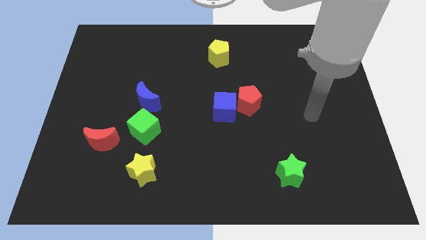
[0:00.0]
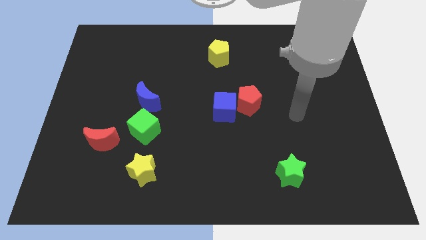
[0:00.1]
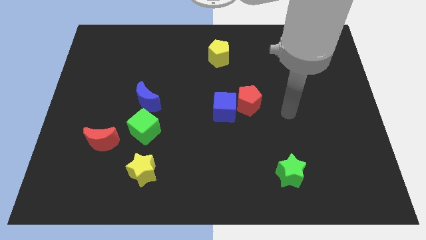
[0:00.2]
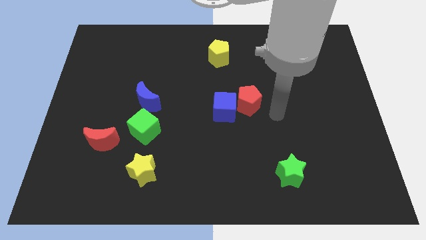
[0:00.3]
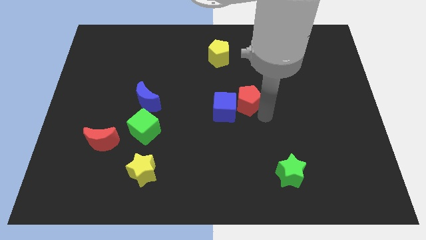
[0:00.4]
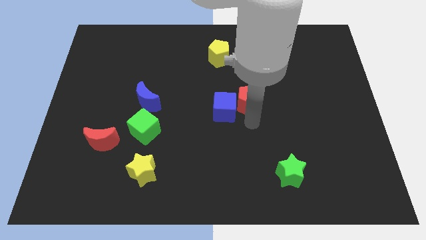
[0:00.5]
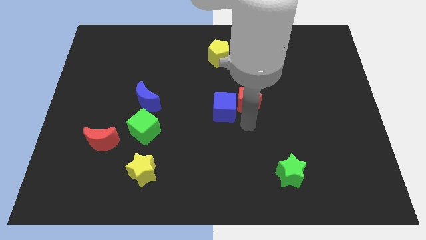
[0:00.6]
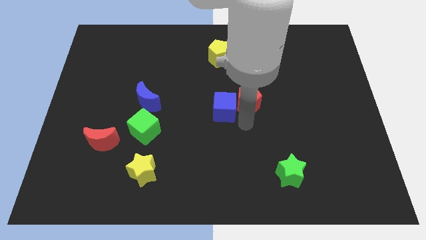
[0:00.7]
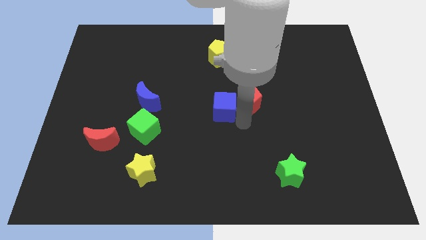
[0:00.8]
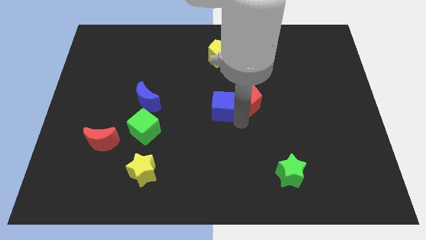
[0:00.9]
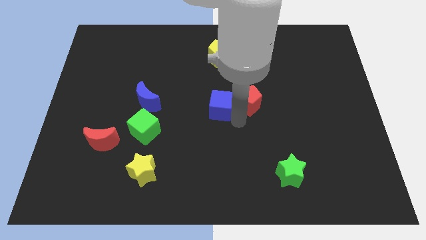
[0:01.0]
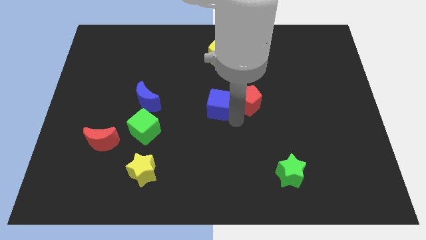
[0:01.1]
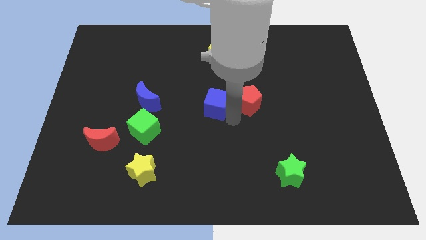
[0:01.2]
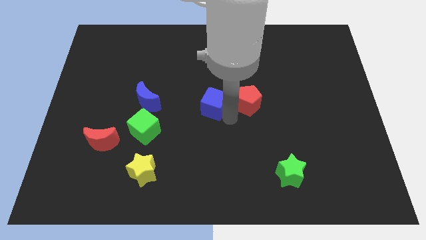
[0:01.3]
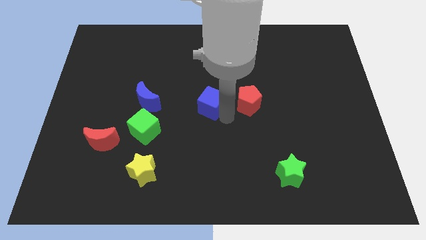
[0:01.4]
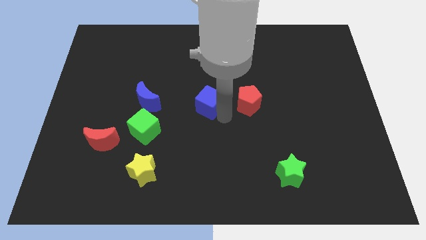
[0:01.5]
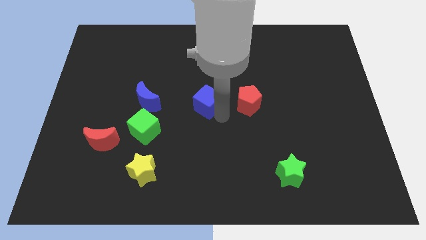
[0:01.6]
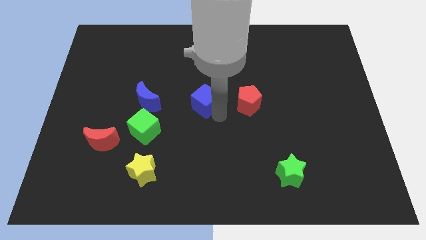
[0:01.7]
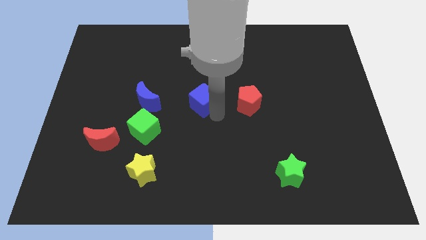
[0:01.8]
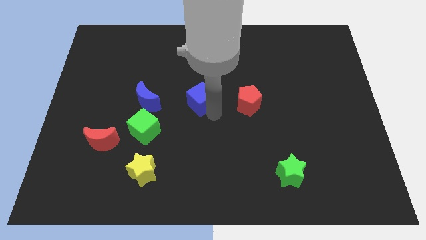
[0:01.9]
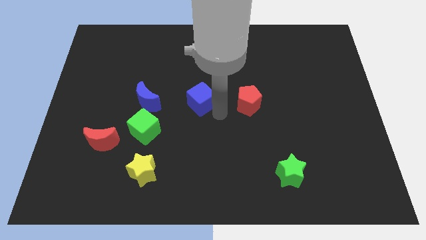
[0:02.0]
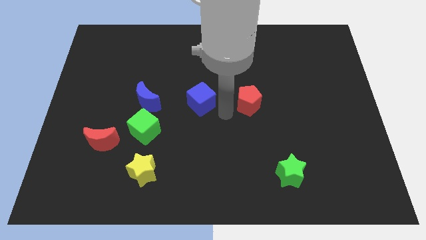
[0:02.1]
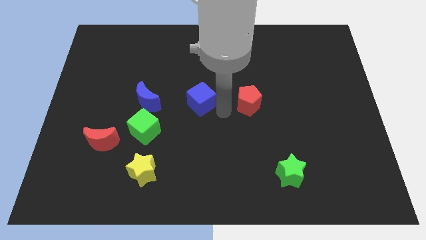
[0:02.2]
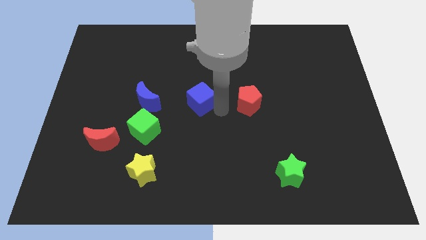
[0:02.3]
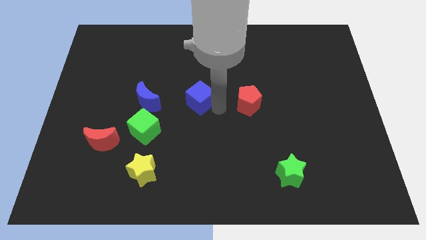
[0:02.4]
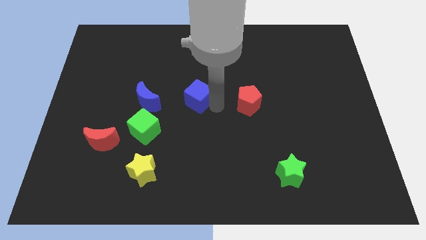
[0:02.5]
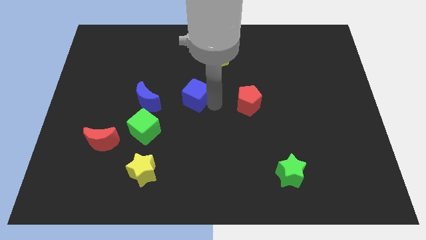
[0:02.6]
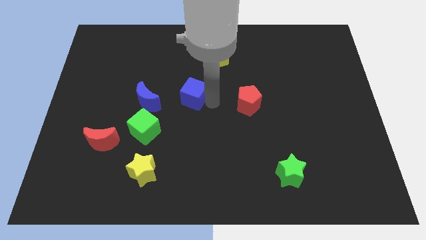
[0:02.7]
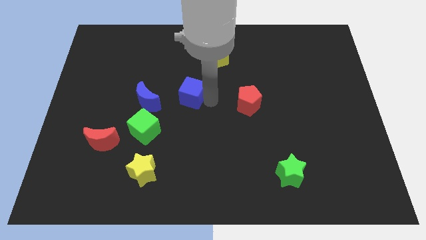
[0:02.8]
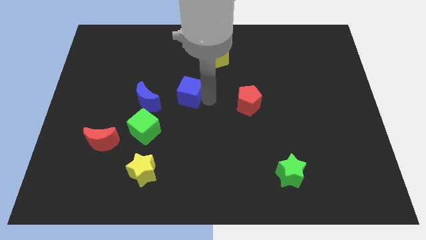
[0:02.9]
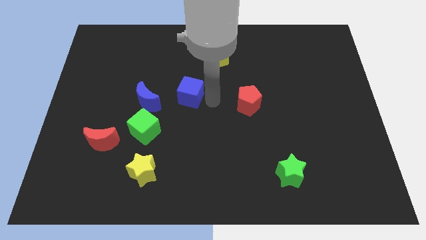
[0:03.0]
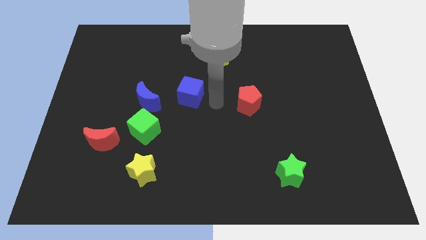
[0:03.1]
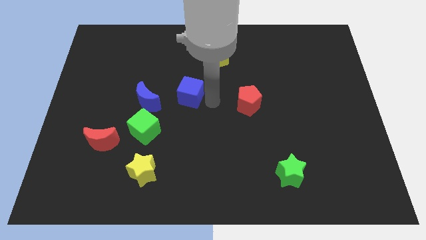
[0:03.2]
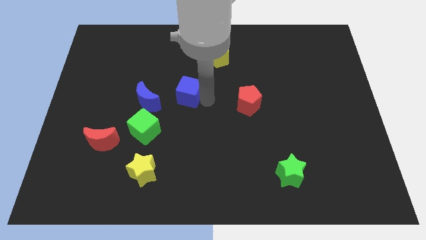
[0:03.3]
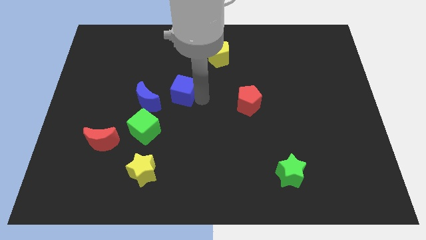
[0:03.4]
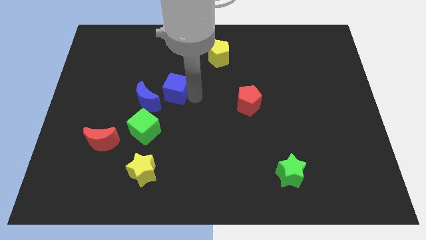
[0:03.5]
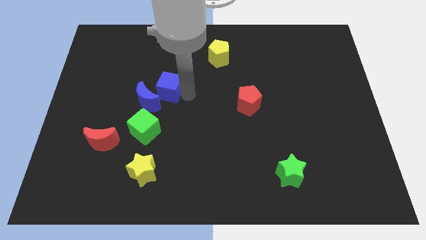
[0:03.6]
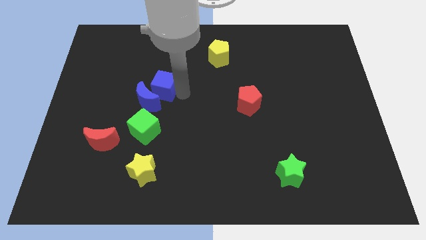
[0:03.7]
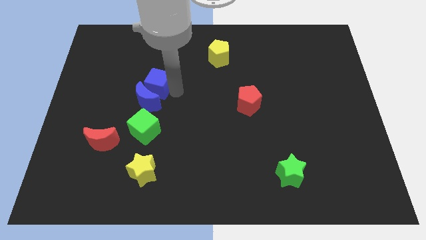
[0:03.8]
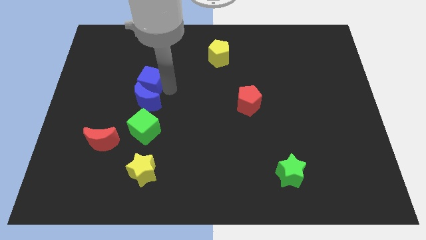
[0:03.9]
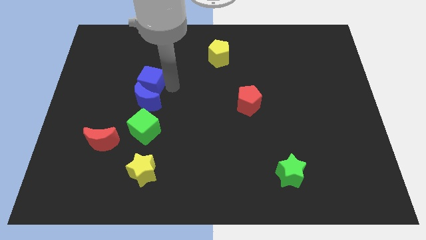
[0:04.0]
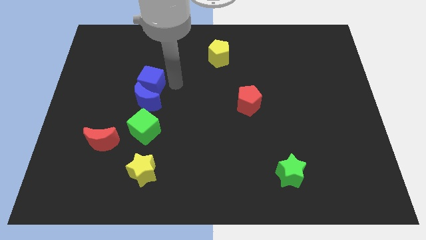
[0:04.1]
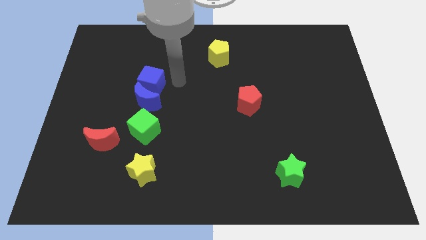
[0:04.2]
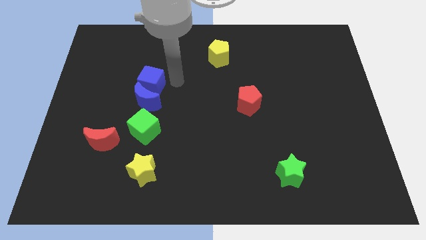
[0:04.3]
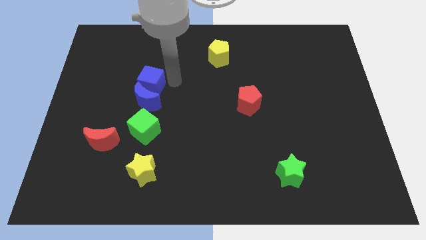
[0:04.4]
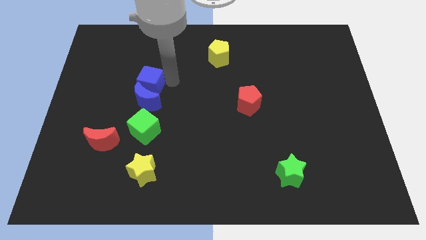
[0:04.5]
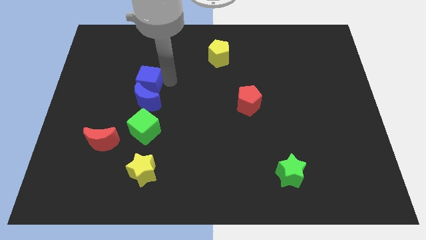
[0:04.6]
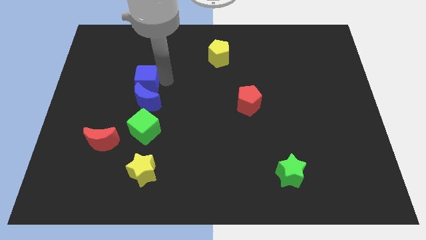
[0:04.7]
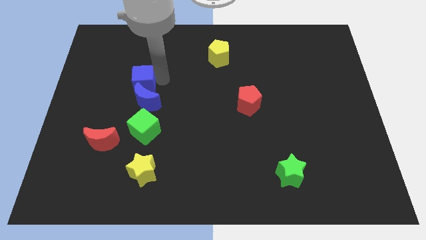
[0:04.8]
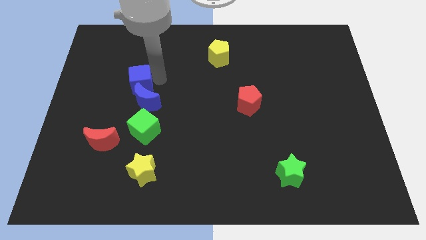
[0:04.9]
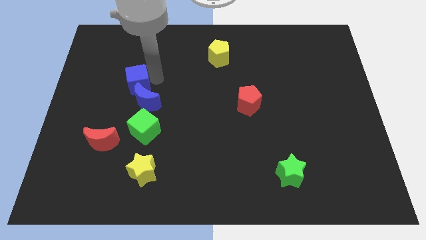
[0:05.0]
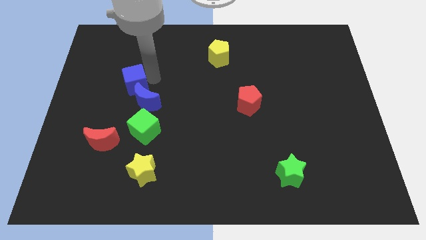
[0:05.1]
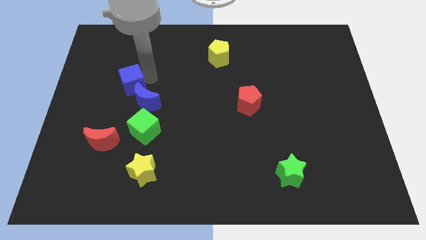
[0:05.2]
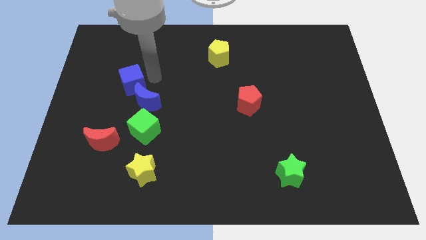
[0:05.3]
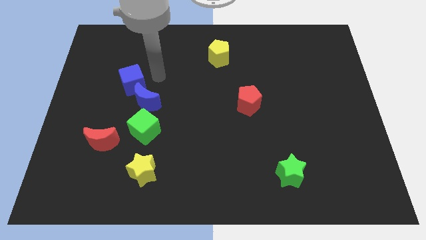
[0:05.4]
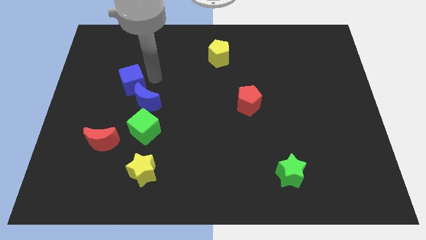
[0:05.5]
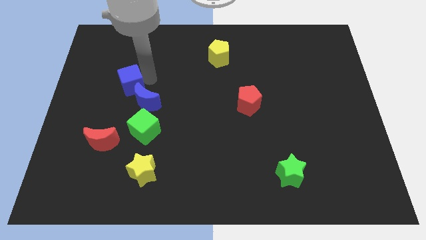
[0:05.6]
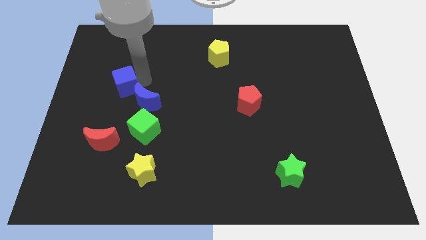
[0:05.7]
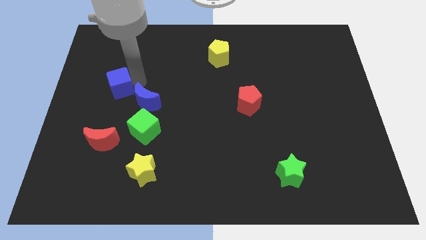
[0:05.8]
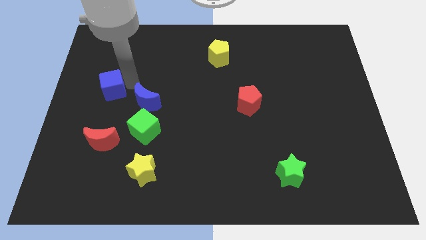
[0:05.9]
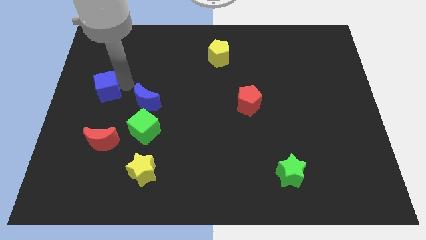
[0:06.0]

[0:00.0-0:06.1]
push the blue cube to the left side of the board
